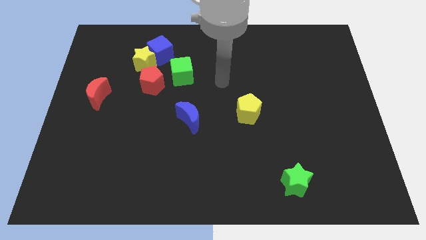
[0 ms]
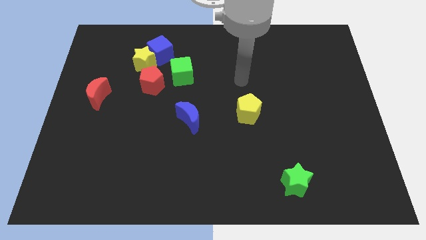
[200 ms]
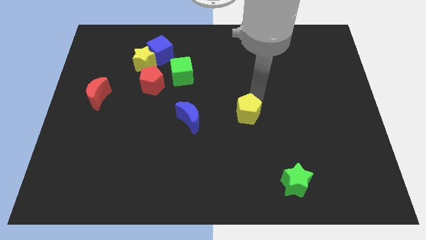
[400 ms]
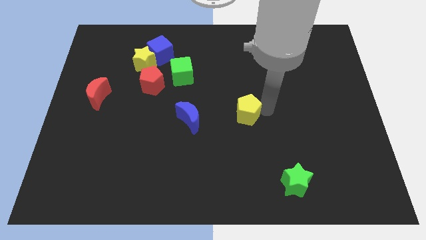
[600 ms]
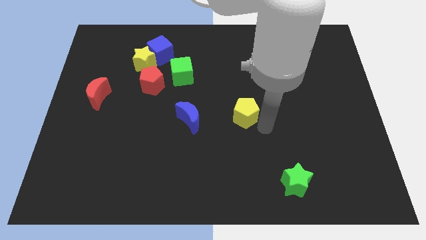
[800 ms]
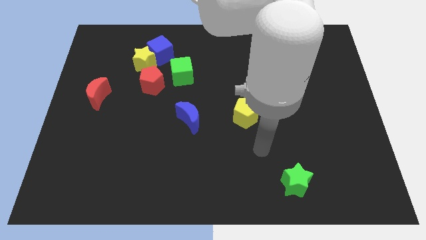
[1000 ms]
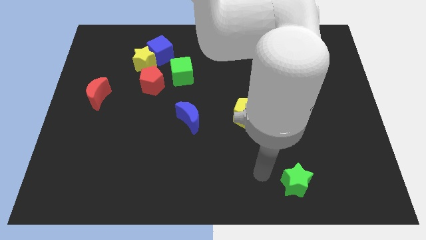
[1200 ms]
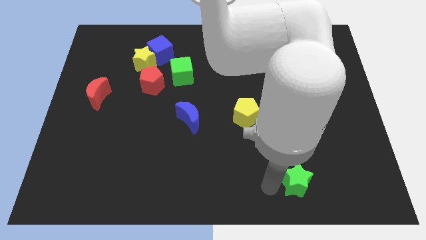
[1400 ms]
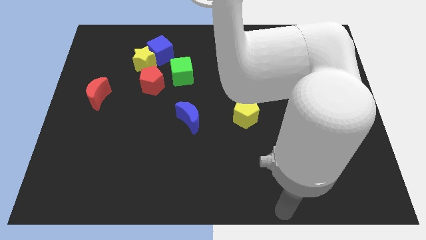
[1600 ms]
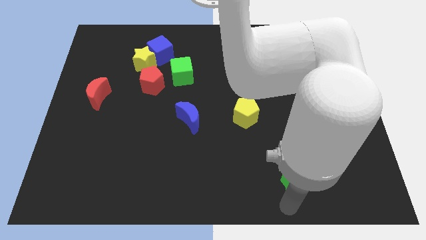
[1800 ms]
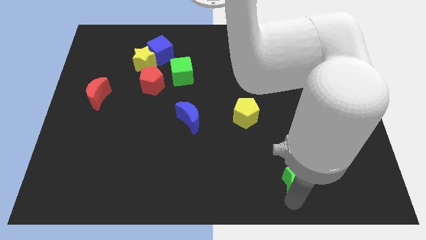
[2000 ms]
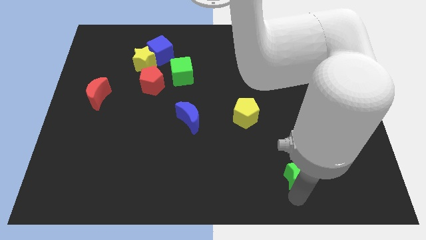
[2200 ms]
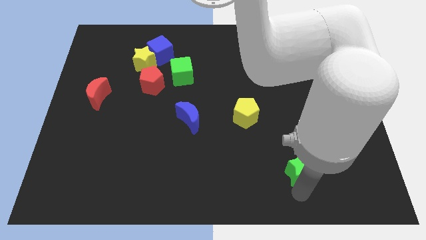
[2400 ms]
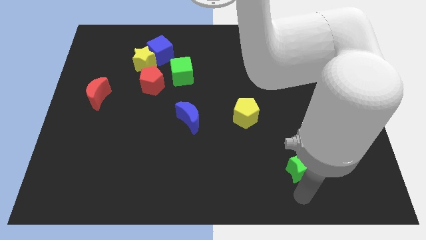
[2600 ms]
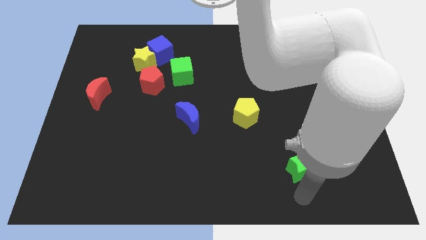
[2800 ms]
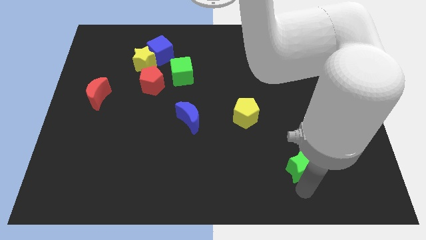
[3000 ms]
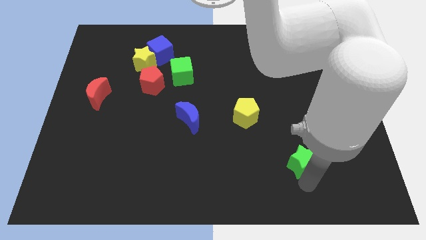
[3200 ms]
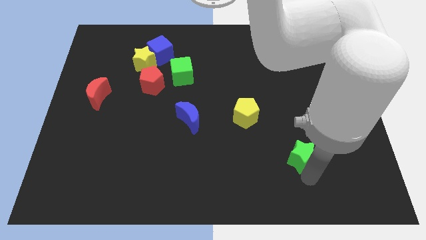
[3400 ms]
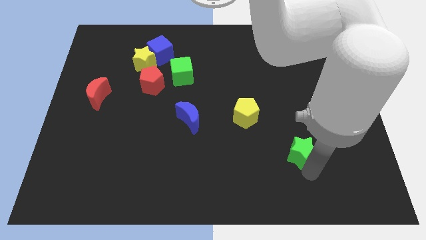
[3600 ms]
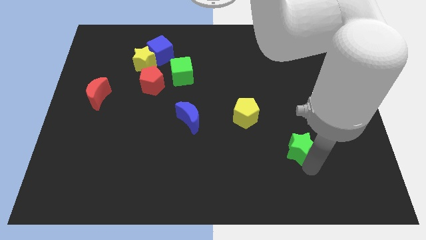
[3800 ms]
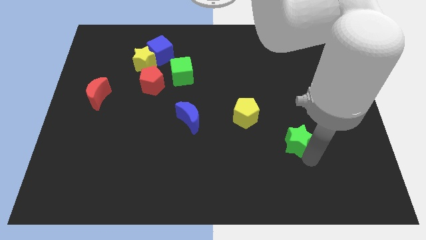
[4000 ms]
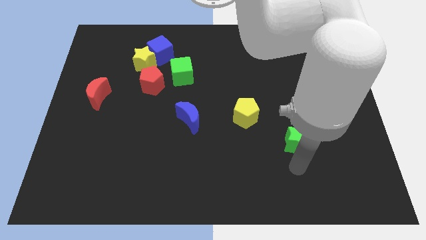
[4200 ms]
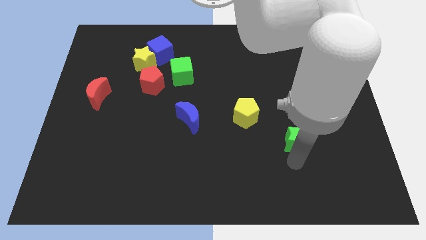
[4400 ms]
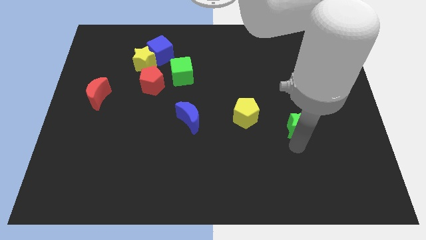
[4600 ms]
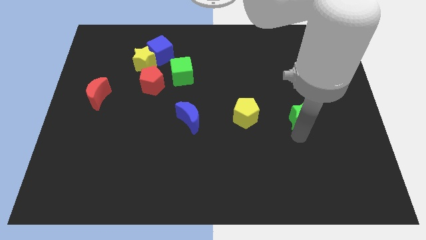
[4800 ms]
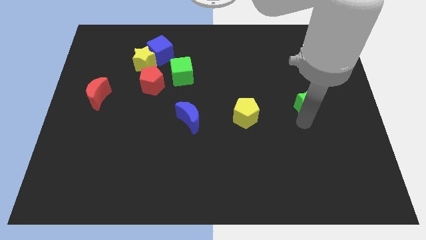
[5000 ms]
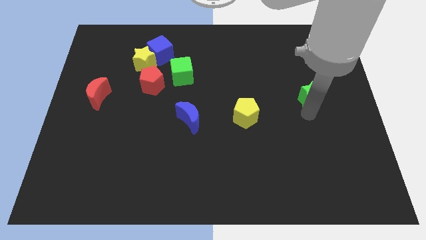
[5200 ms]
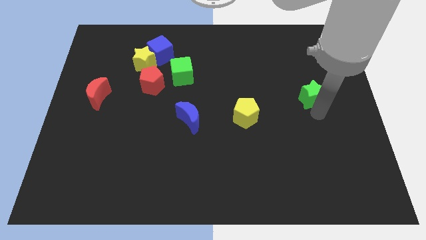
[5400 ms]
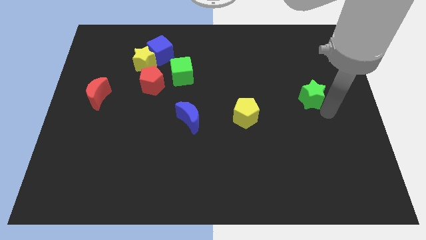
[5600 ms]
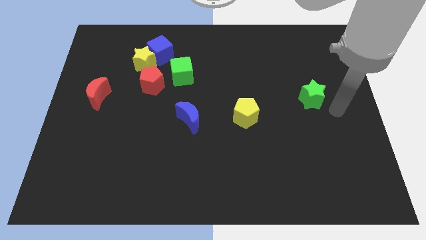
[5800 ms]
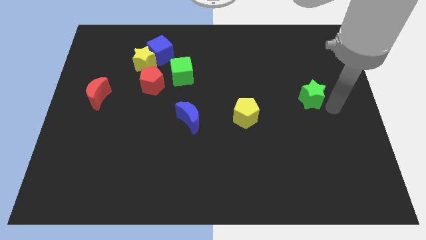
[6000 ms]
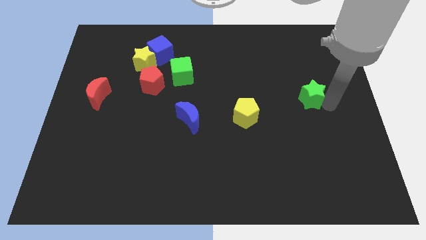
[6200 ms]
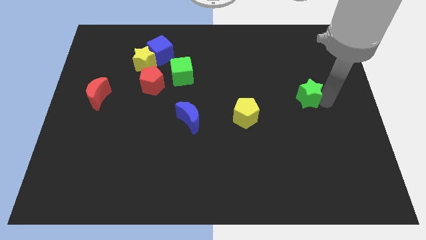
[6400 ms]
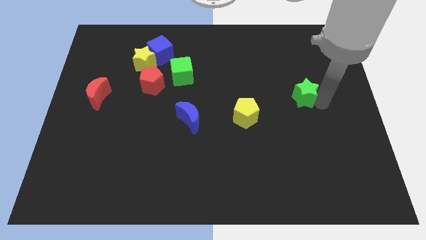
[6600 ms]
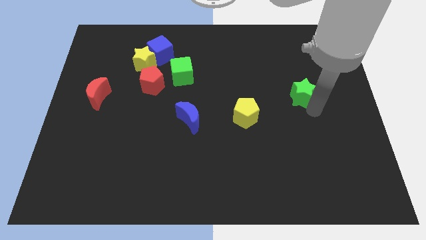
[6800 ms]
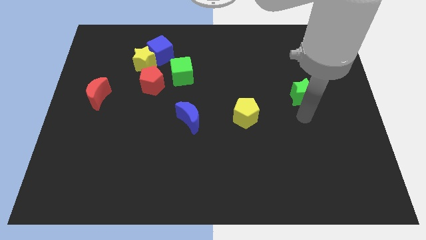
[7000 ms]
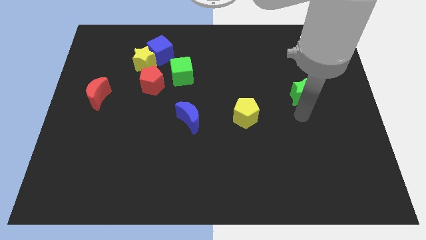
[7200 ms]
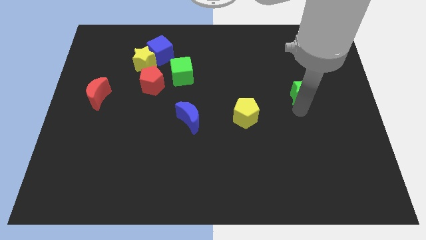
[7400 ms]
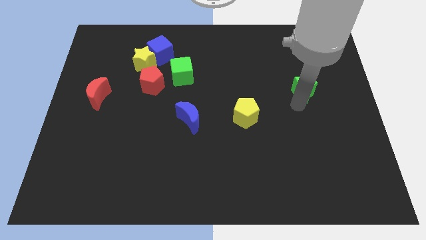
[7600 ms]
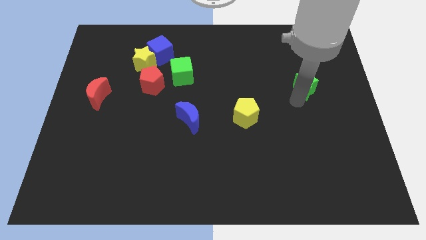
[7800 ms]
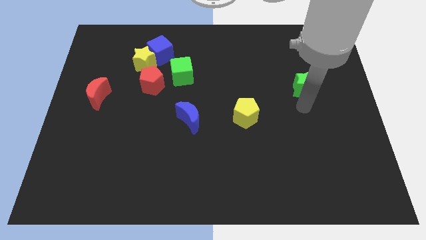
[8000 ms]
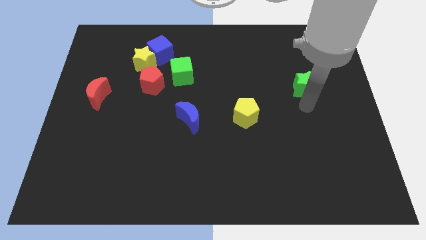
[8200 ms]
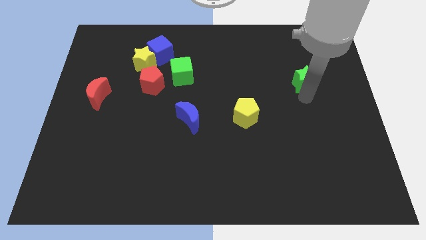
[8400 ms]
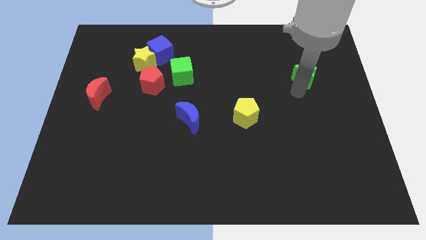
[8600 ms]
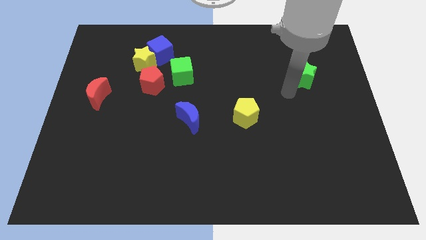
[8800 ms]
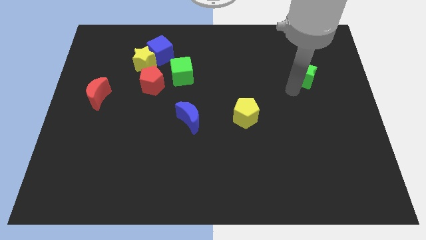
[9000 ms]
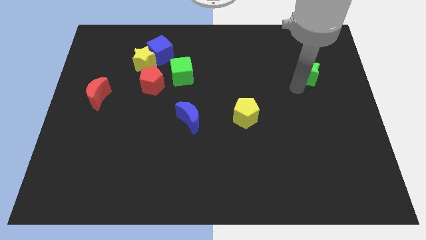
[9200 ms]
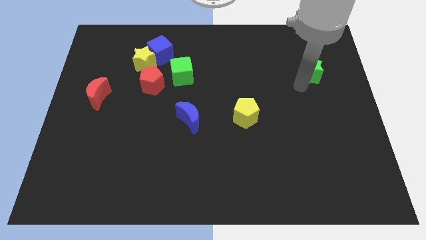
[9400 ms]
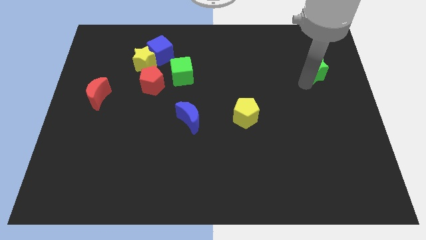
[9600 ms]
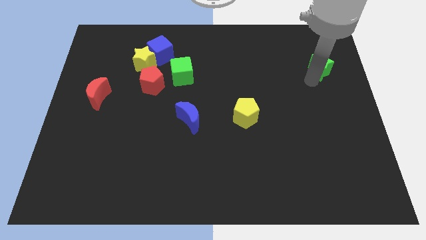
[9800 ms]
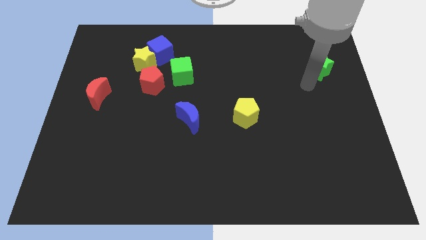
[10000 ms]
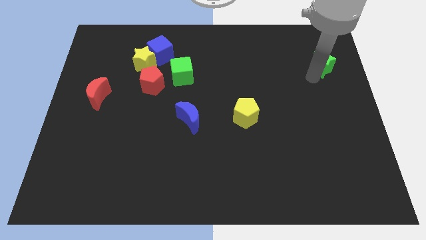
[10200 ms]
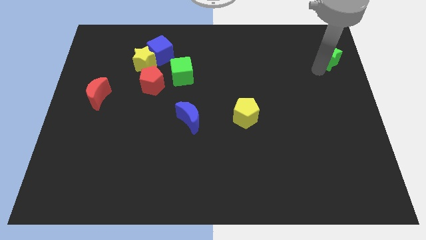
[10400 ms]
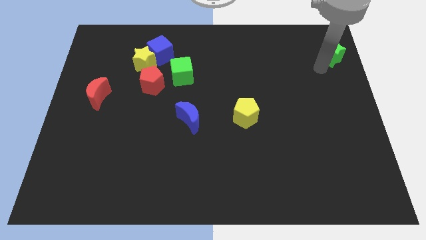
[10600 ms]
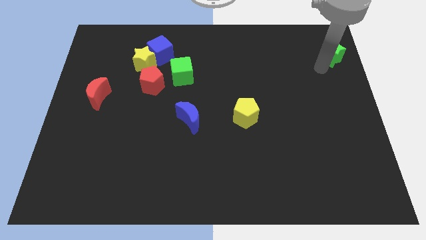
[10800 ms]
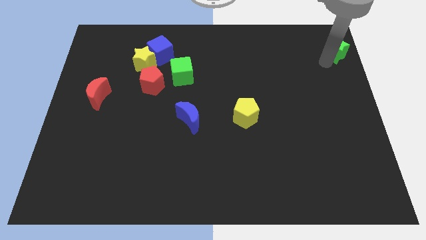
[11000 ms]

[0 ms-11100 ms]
push the green star to the upper right corner
